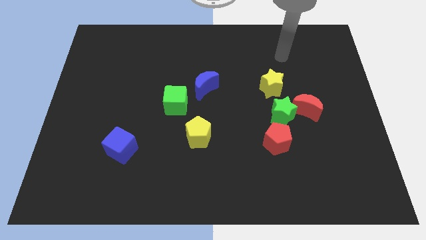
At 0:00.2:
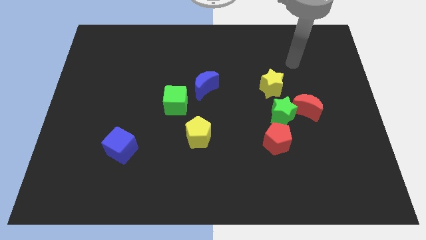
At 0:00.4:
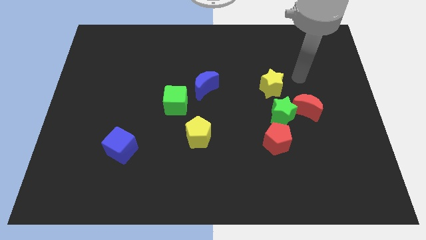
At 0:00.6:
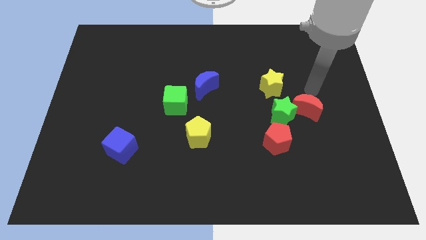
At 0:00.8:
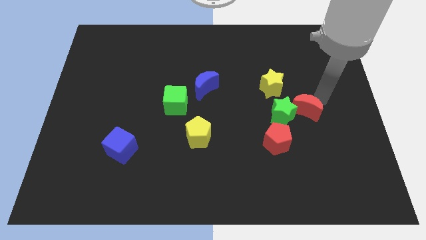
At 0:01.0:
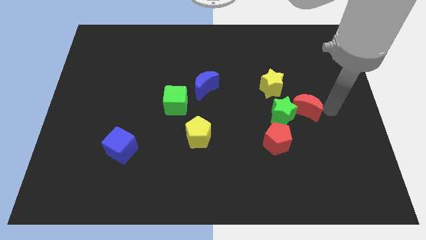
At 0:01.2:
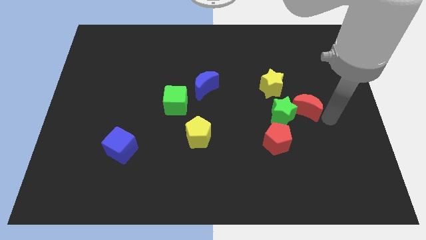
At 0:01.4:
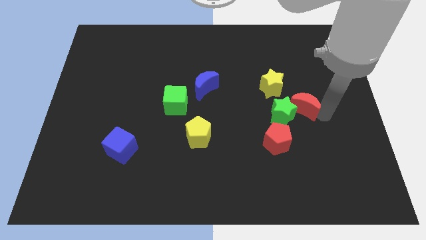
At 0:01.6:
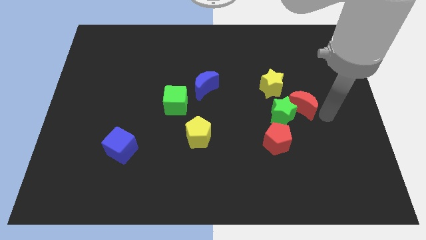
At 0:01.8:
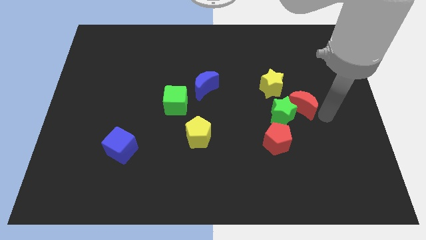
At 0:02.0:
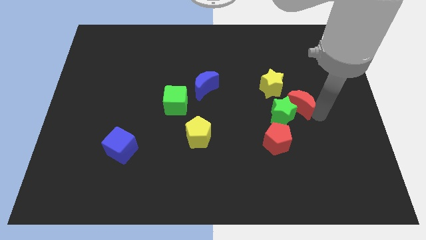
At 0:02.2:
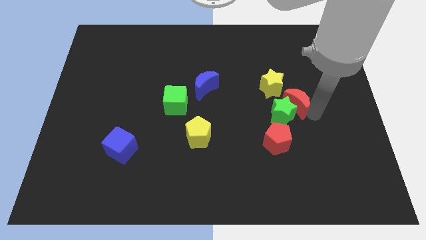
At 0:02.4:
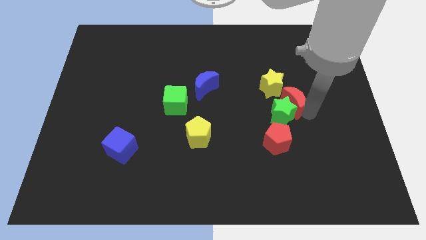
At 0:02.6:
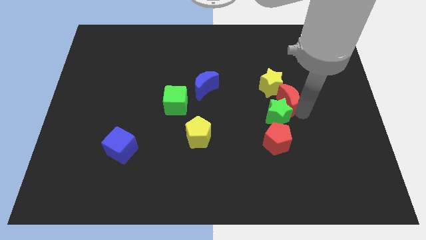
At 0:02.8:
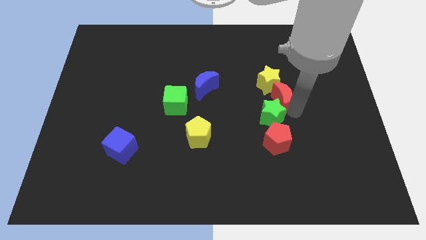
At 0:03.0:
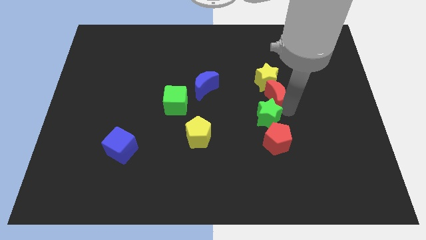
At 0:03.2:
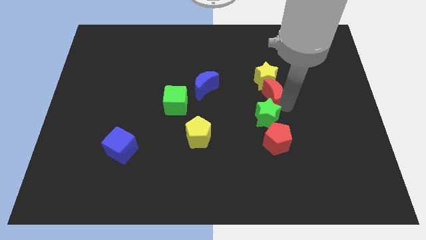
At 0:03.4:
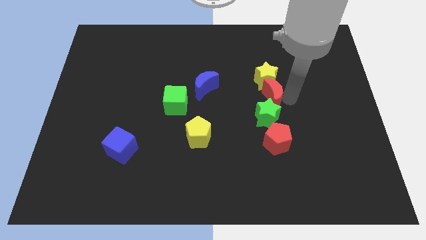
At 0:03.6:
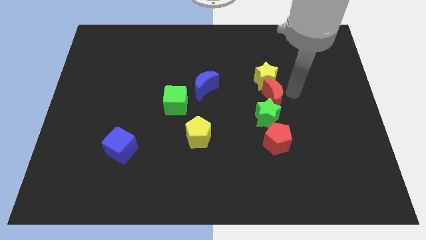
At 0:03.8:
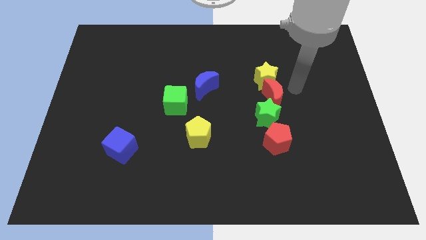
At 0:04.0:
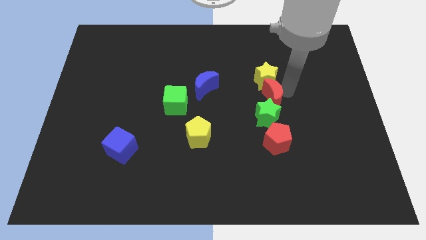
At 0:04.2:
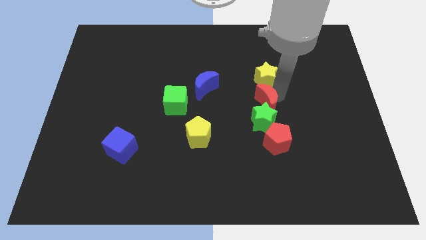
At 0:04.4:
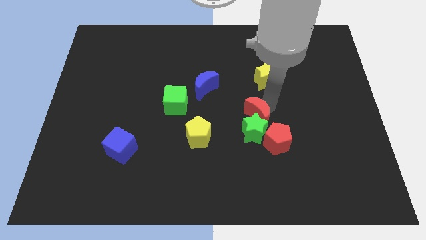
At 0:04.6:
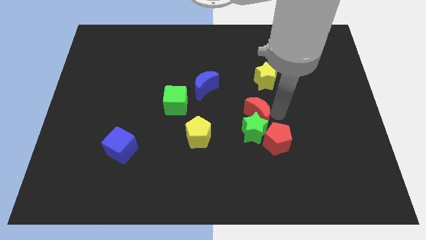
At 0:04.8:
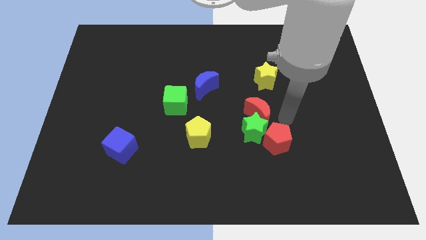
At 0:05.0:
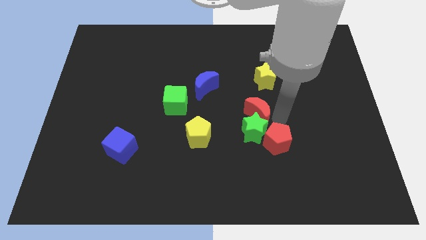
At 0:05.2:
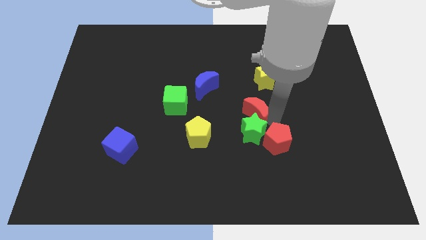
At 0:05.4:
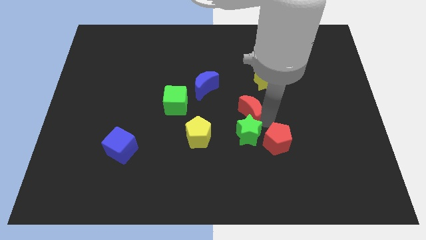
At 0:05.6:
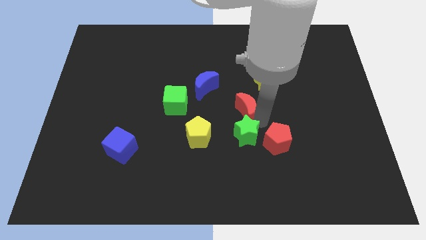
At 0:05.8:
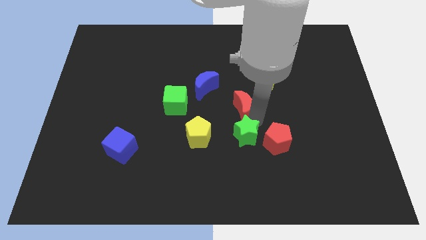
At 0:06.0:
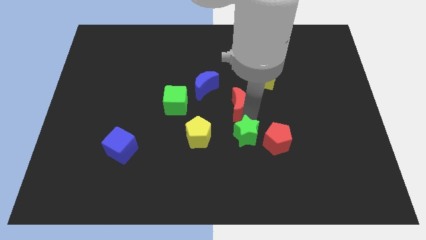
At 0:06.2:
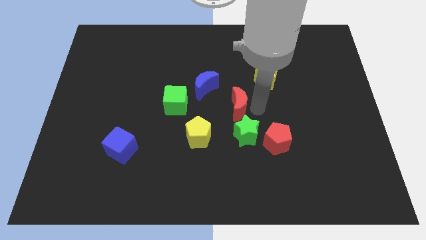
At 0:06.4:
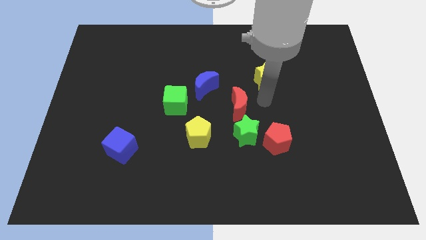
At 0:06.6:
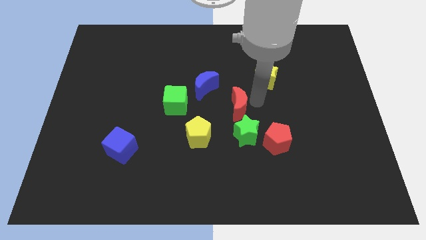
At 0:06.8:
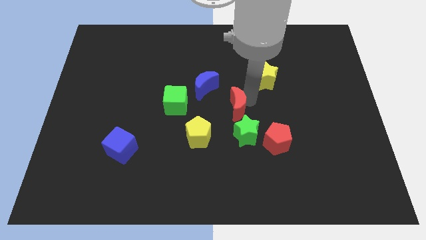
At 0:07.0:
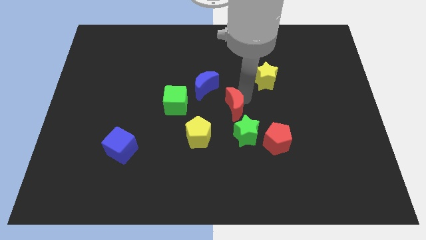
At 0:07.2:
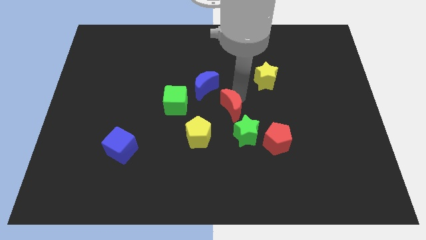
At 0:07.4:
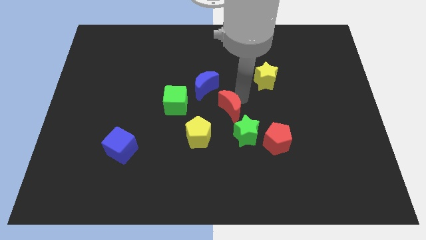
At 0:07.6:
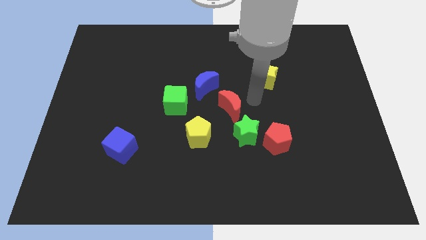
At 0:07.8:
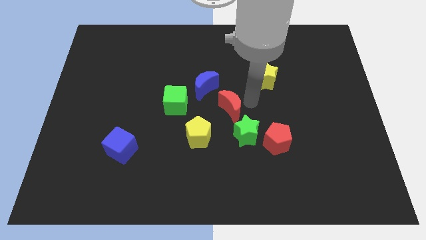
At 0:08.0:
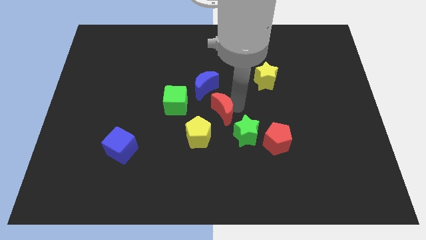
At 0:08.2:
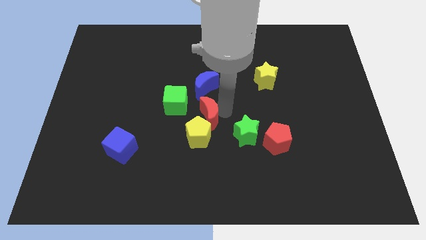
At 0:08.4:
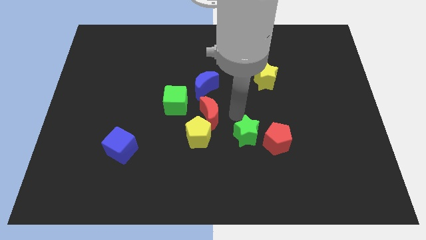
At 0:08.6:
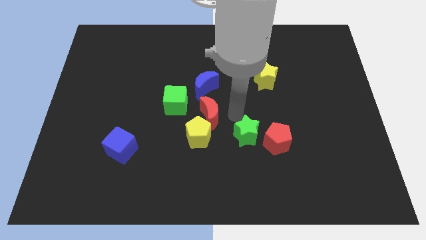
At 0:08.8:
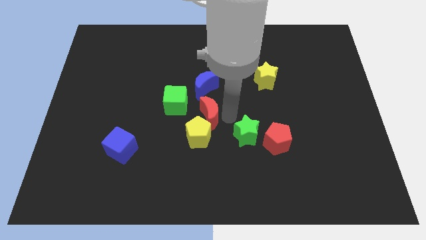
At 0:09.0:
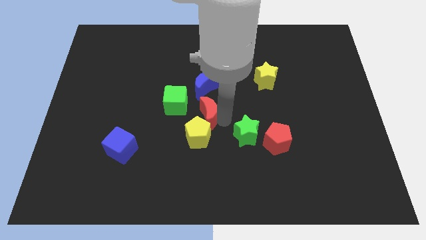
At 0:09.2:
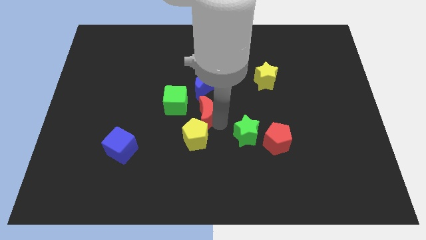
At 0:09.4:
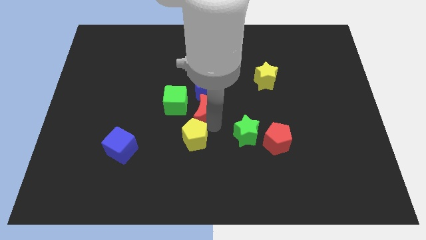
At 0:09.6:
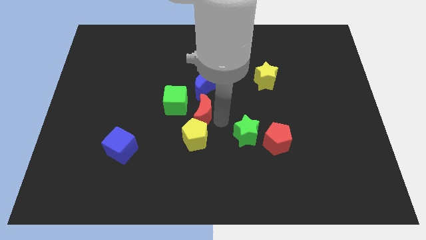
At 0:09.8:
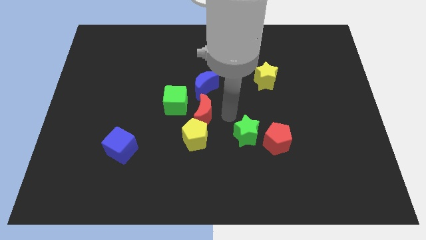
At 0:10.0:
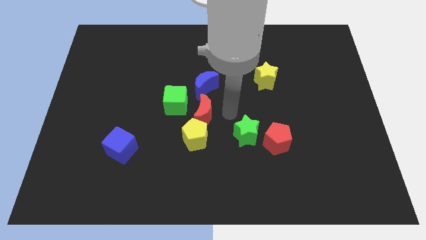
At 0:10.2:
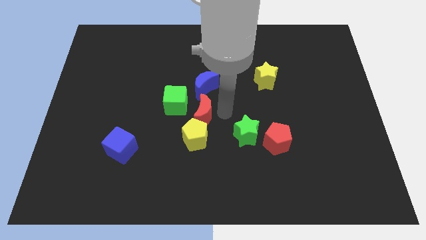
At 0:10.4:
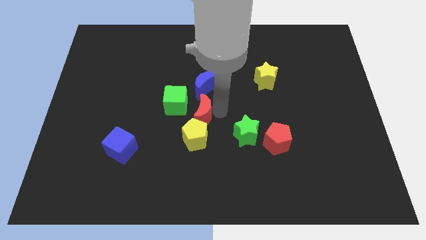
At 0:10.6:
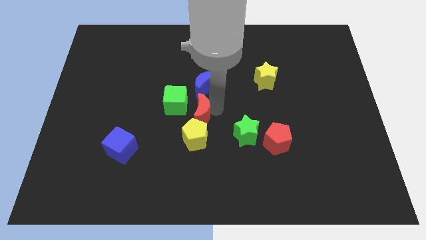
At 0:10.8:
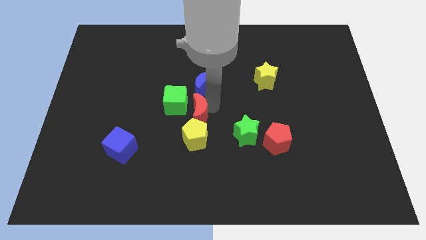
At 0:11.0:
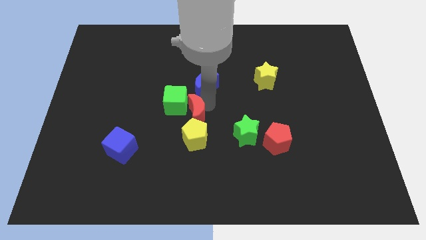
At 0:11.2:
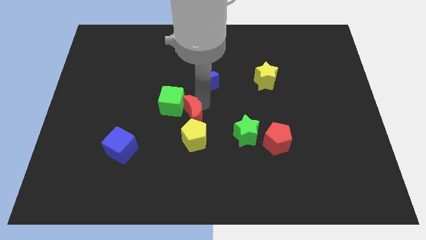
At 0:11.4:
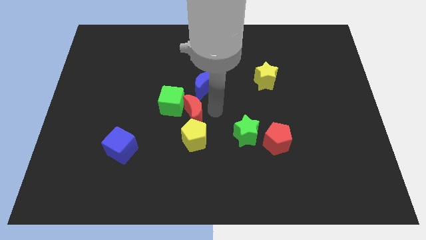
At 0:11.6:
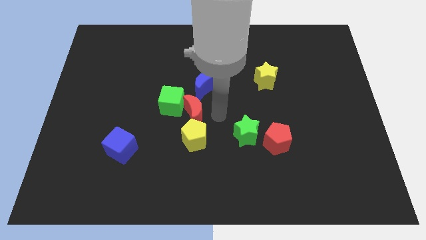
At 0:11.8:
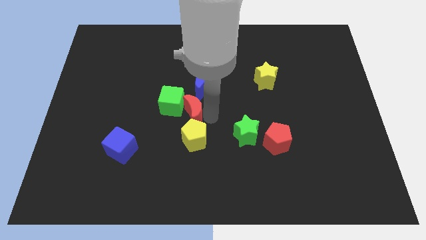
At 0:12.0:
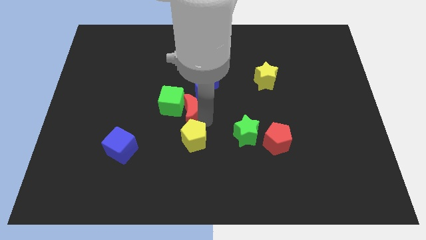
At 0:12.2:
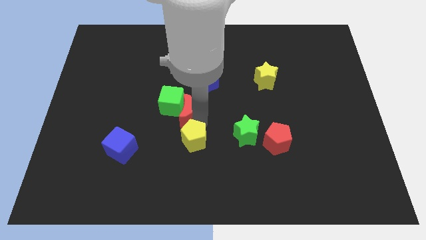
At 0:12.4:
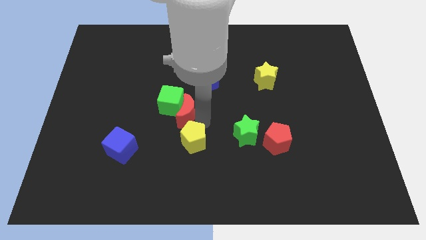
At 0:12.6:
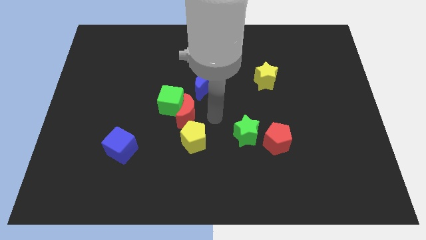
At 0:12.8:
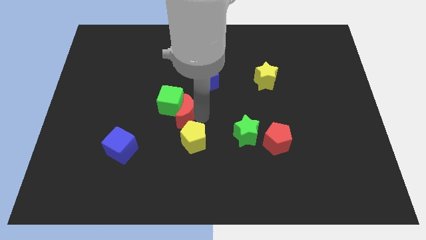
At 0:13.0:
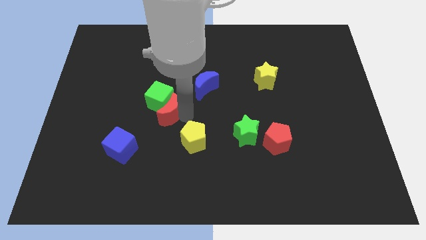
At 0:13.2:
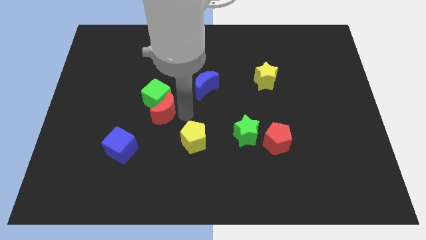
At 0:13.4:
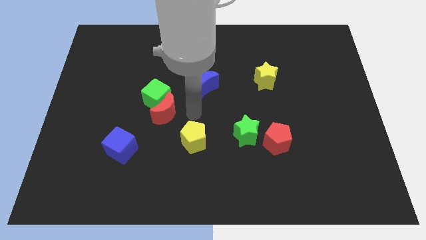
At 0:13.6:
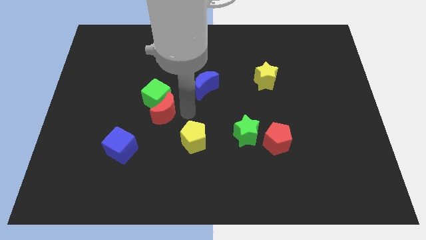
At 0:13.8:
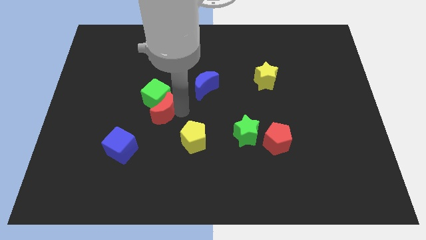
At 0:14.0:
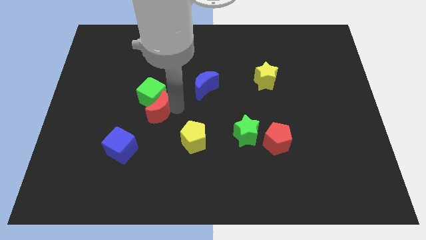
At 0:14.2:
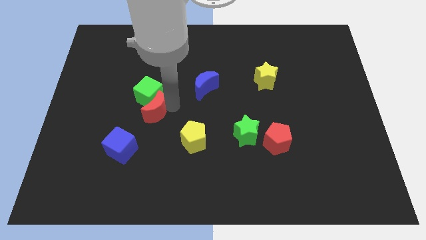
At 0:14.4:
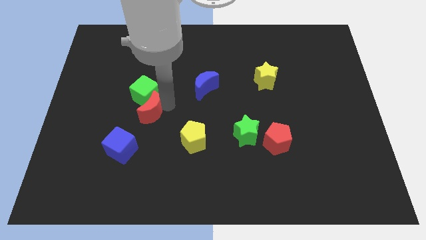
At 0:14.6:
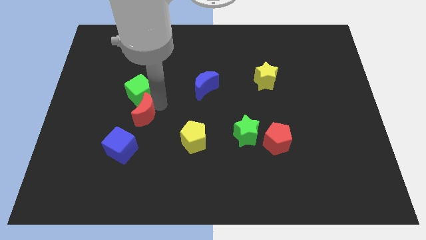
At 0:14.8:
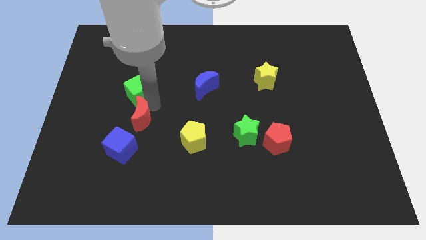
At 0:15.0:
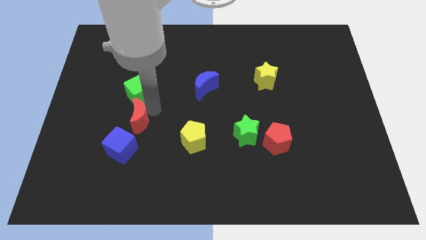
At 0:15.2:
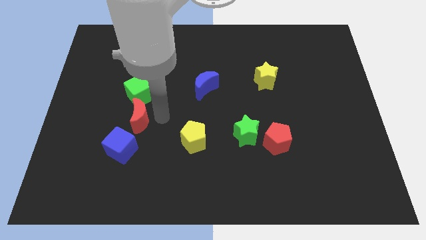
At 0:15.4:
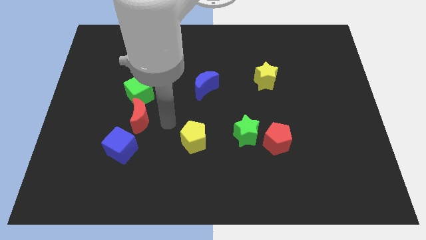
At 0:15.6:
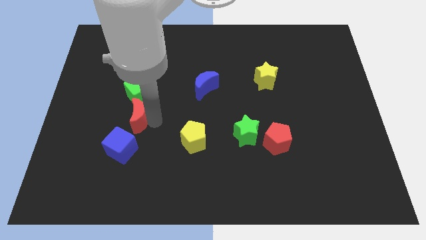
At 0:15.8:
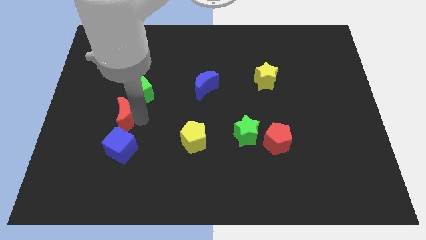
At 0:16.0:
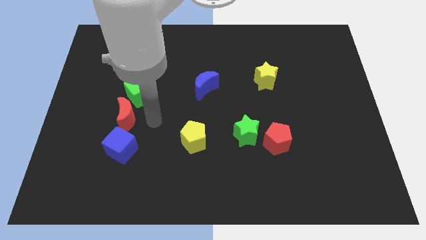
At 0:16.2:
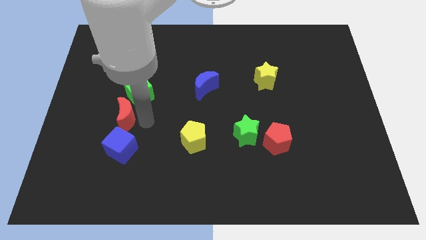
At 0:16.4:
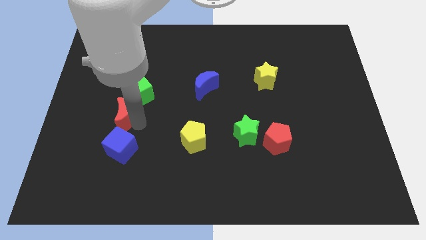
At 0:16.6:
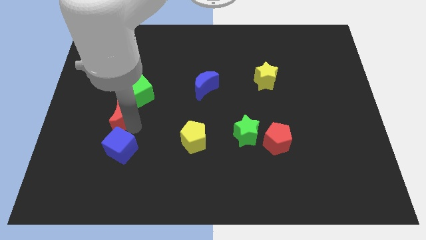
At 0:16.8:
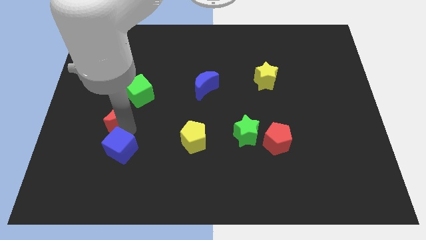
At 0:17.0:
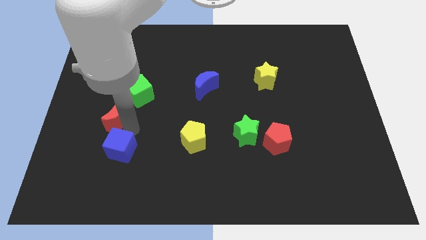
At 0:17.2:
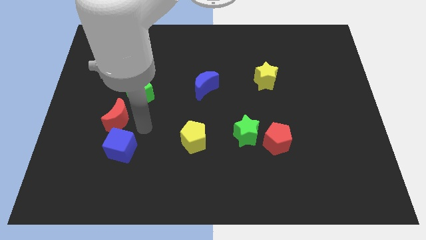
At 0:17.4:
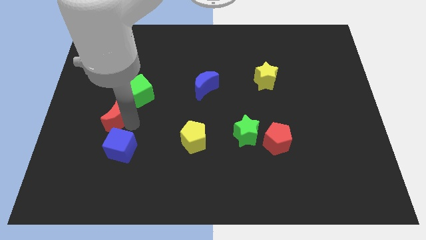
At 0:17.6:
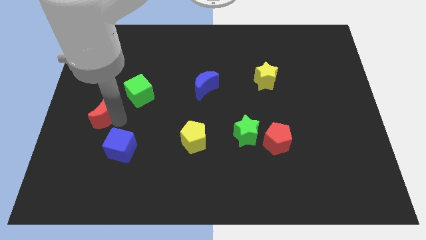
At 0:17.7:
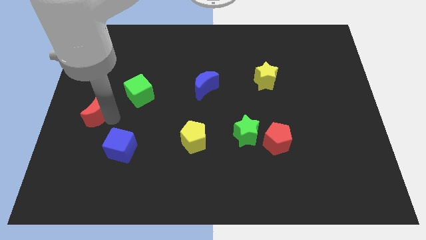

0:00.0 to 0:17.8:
push the red moon to the left side
